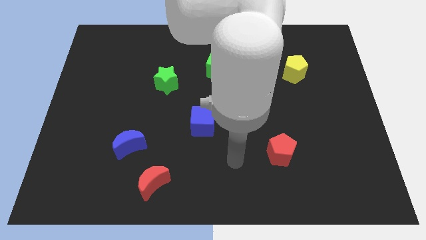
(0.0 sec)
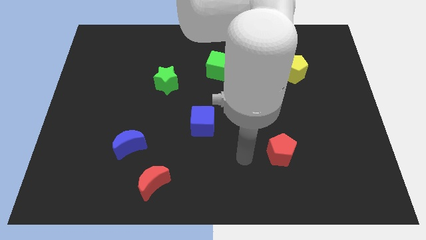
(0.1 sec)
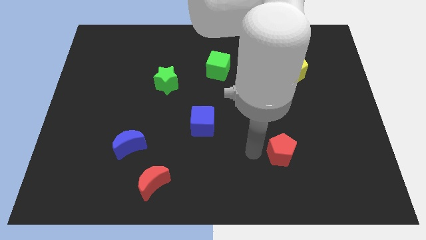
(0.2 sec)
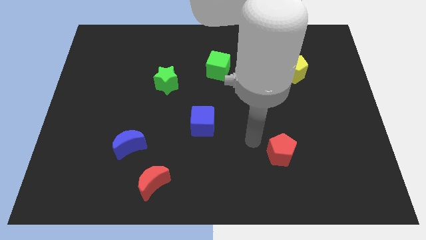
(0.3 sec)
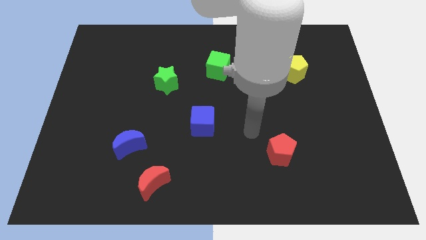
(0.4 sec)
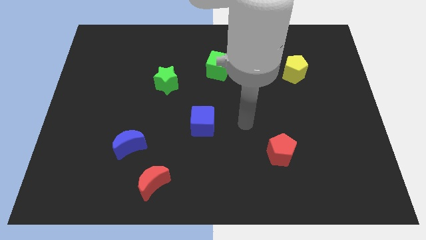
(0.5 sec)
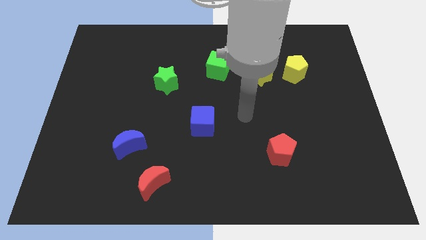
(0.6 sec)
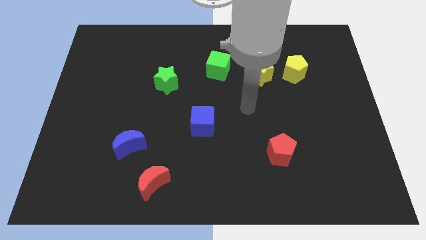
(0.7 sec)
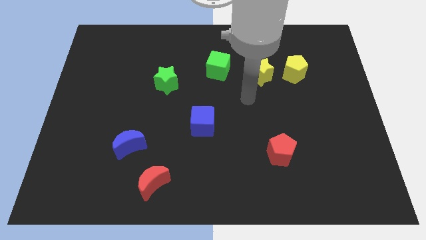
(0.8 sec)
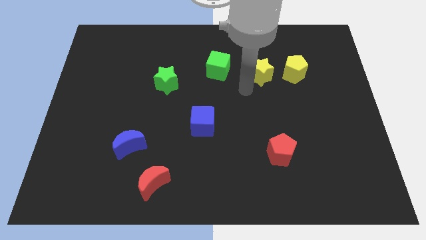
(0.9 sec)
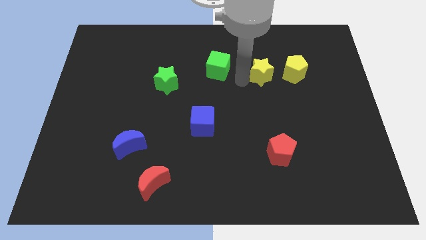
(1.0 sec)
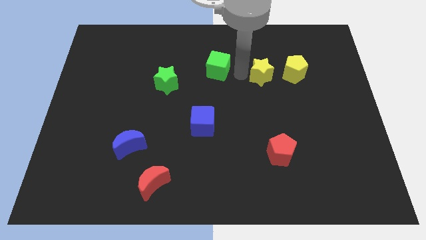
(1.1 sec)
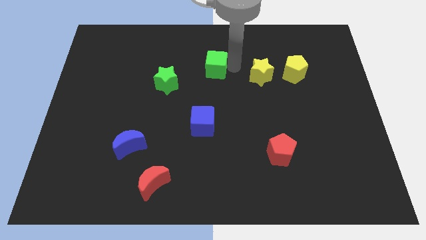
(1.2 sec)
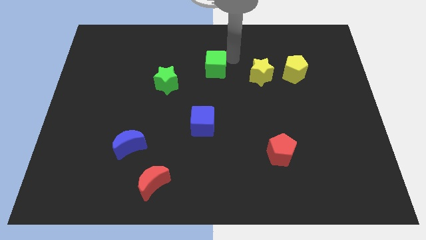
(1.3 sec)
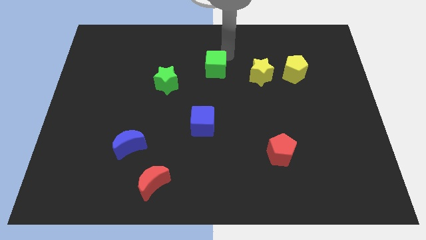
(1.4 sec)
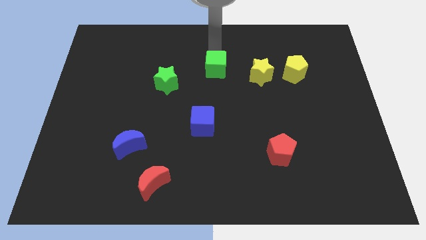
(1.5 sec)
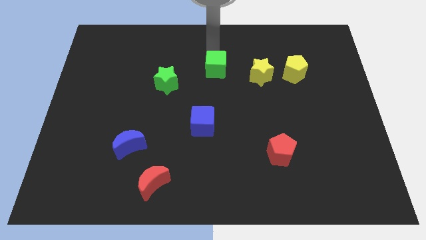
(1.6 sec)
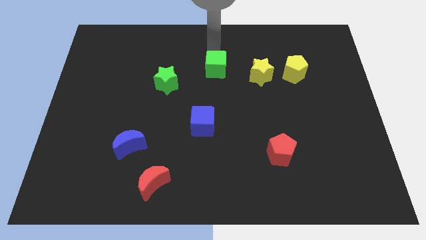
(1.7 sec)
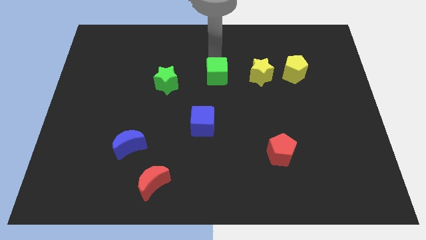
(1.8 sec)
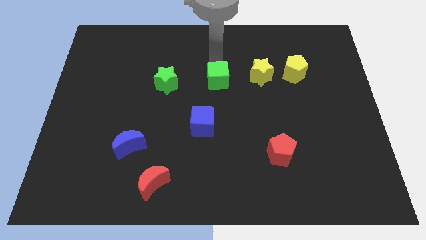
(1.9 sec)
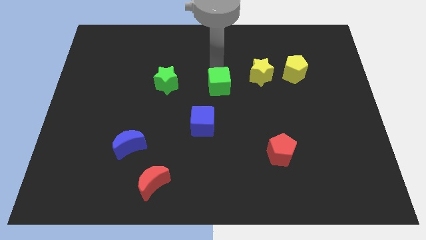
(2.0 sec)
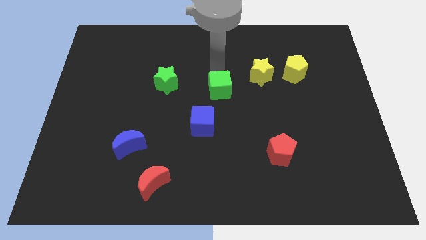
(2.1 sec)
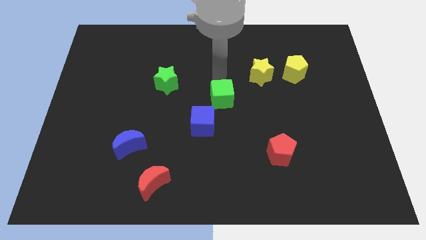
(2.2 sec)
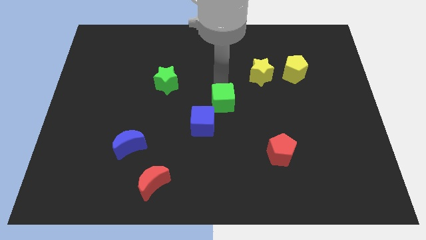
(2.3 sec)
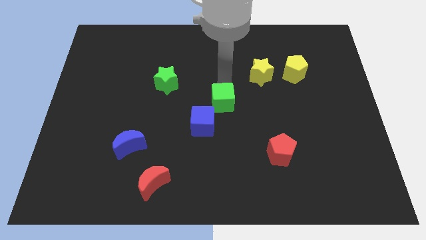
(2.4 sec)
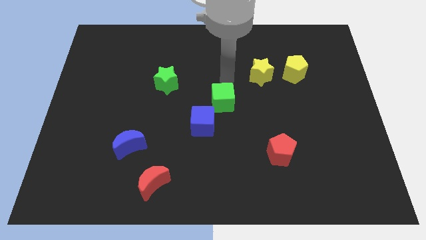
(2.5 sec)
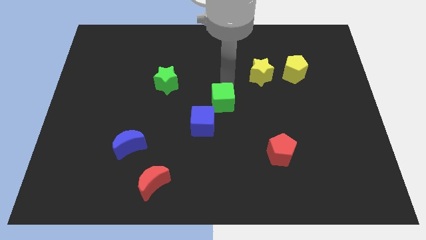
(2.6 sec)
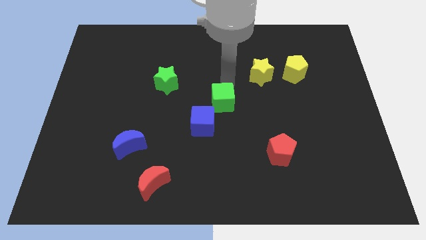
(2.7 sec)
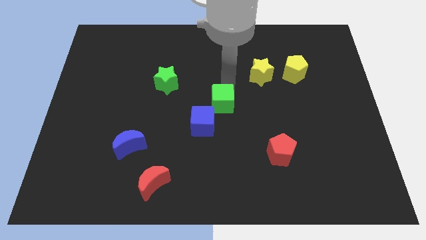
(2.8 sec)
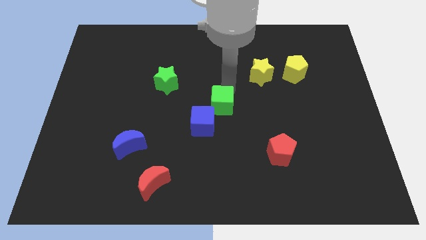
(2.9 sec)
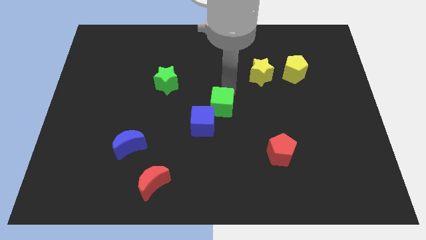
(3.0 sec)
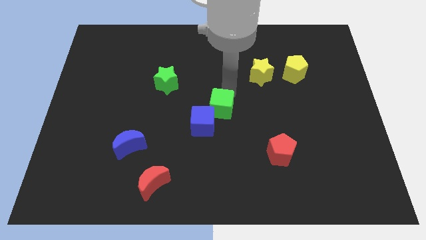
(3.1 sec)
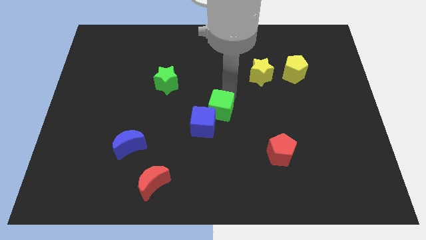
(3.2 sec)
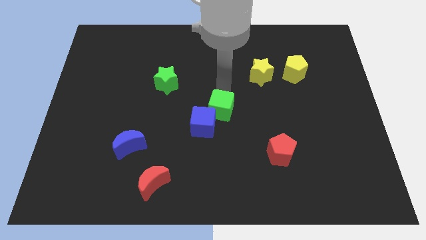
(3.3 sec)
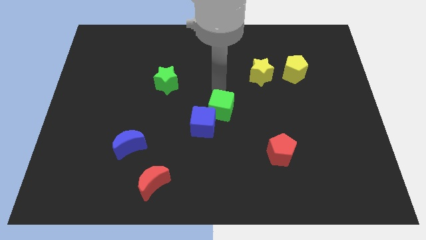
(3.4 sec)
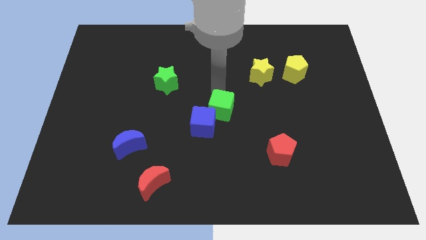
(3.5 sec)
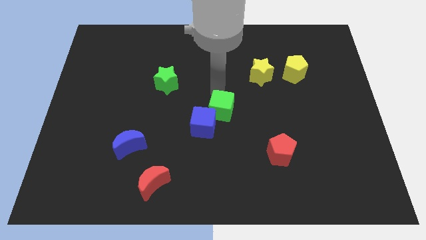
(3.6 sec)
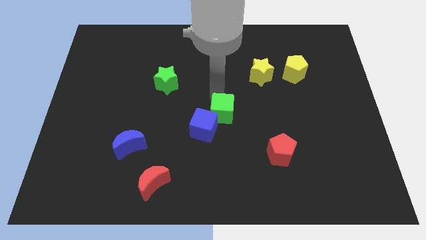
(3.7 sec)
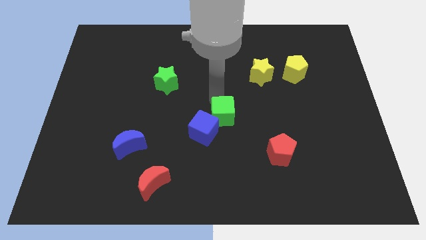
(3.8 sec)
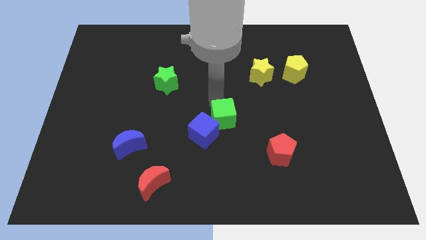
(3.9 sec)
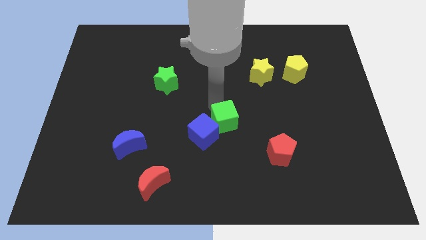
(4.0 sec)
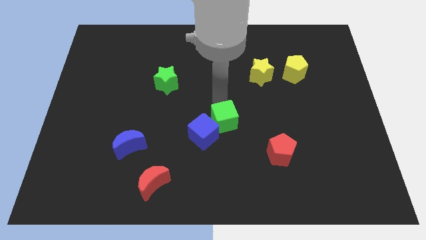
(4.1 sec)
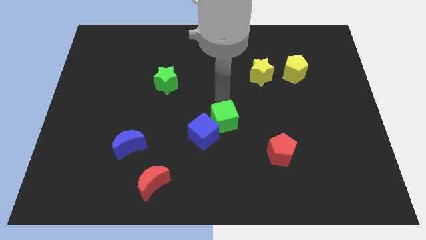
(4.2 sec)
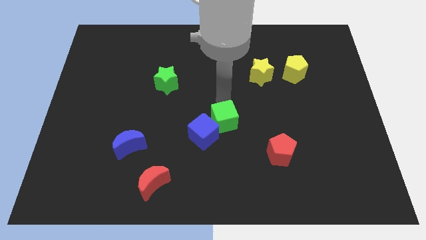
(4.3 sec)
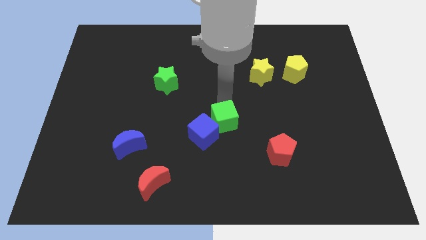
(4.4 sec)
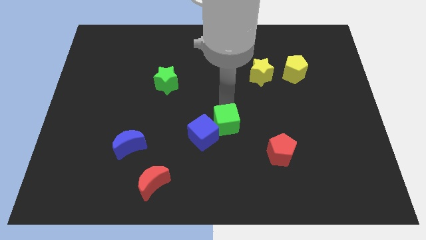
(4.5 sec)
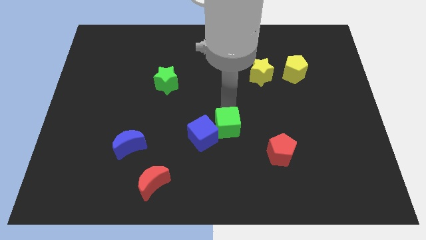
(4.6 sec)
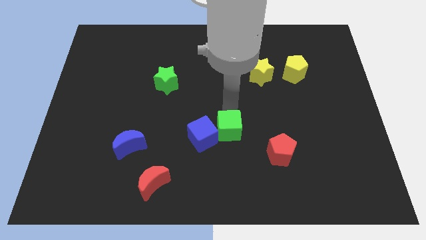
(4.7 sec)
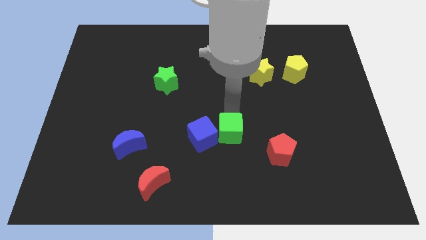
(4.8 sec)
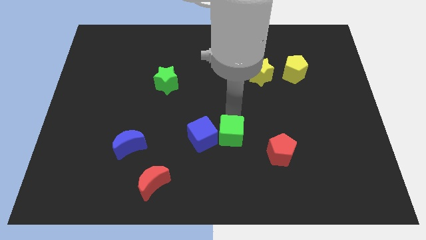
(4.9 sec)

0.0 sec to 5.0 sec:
push the green cube diagonally down and to the right of the blue cube

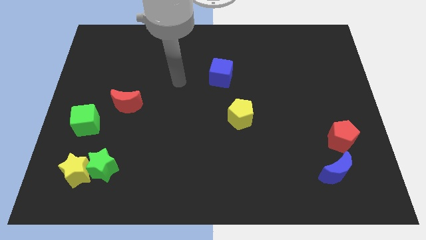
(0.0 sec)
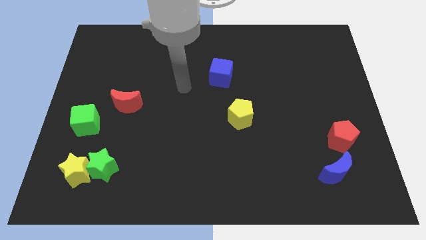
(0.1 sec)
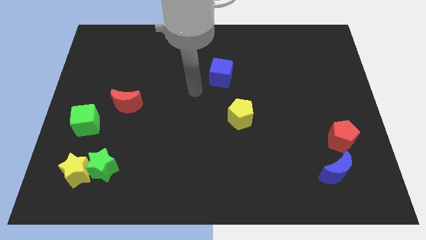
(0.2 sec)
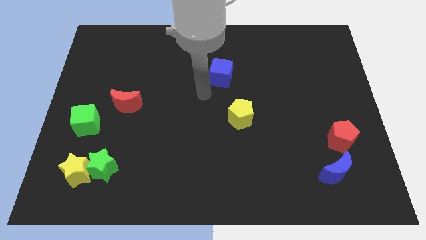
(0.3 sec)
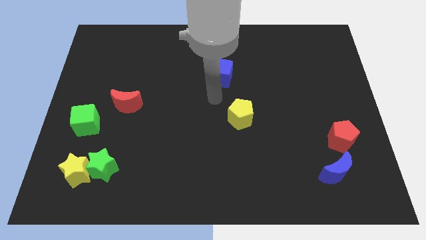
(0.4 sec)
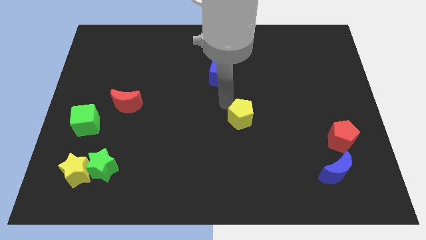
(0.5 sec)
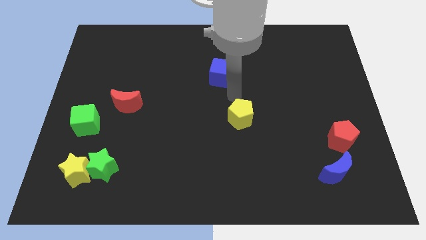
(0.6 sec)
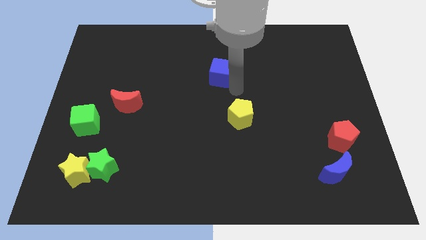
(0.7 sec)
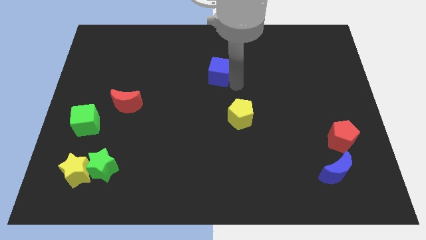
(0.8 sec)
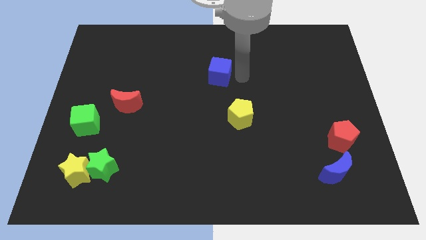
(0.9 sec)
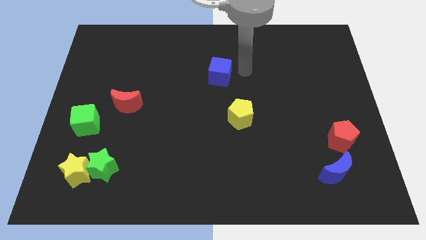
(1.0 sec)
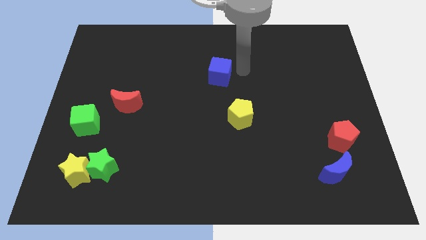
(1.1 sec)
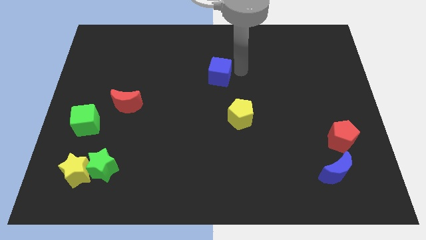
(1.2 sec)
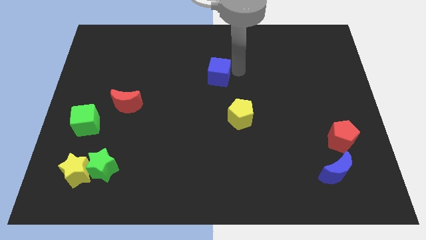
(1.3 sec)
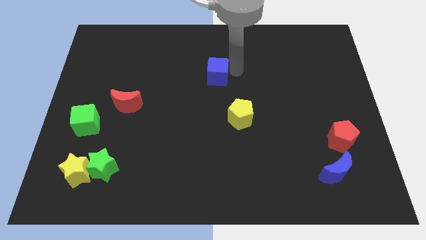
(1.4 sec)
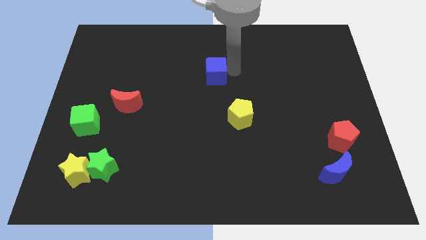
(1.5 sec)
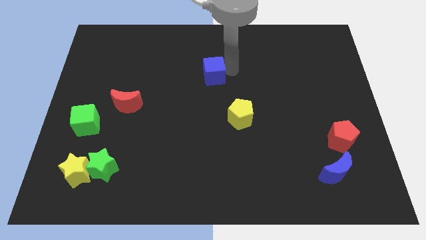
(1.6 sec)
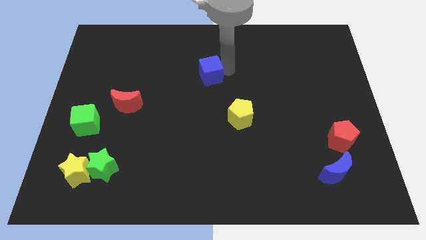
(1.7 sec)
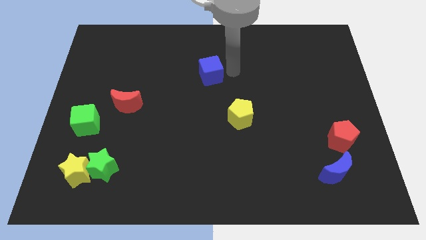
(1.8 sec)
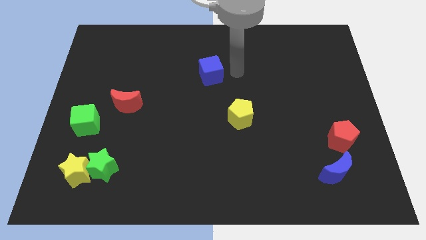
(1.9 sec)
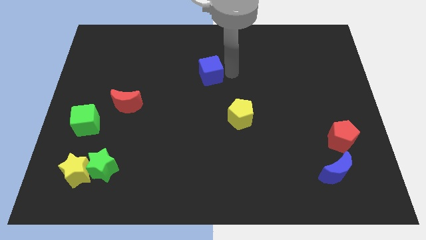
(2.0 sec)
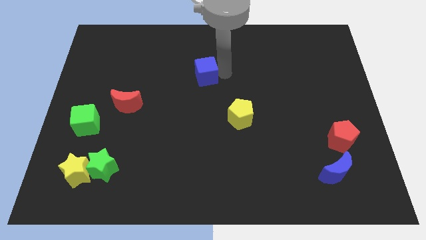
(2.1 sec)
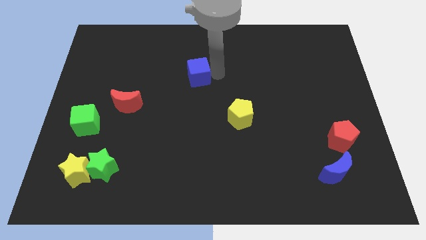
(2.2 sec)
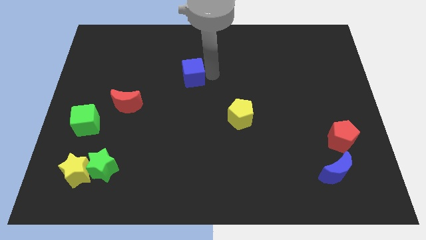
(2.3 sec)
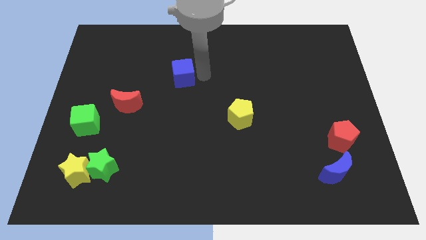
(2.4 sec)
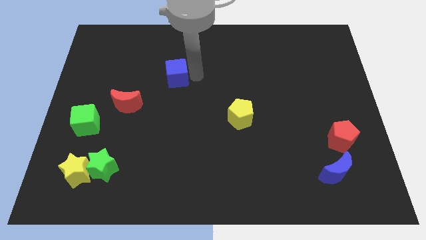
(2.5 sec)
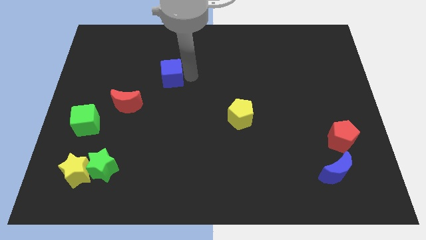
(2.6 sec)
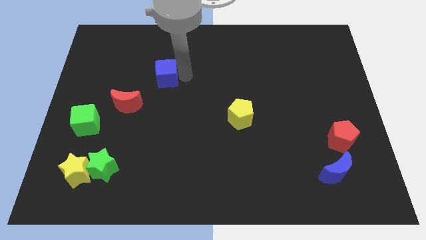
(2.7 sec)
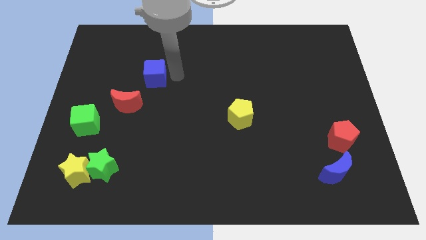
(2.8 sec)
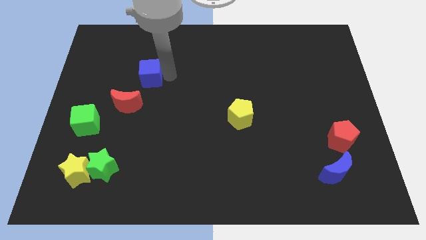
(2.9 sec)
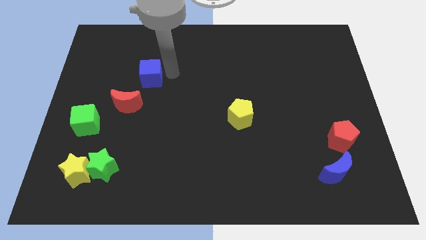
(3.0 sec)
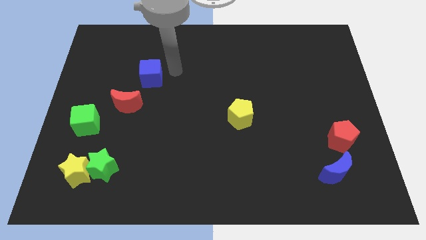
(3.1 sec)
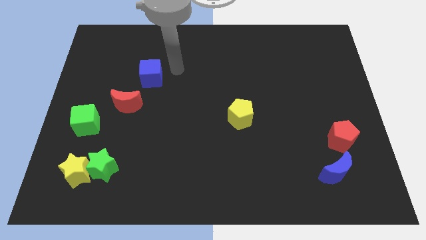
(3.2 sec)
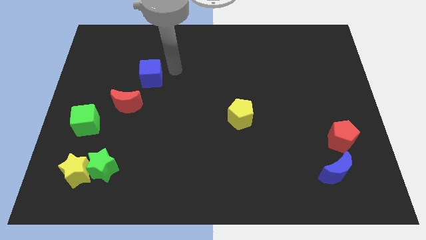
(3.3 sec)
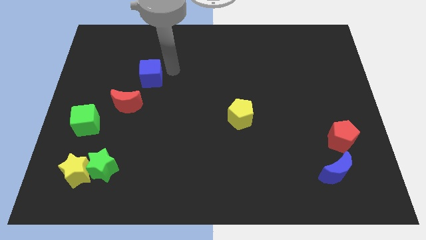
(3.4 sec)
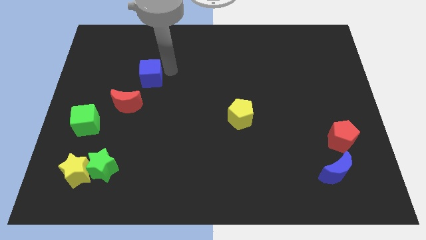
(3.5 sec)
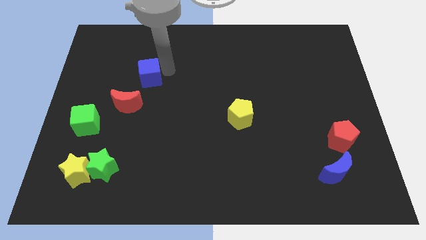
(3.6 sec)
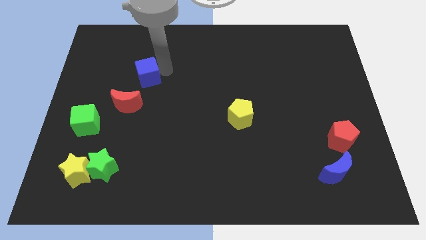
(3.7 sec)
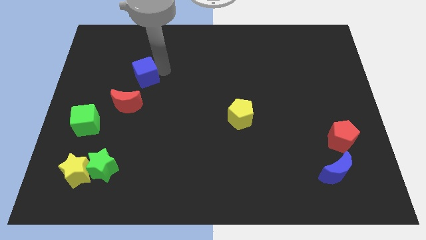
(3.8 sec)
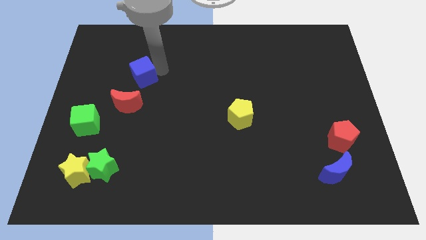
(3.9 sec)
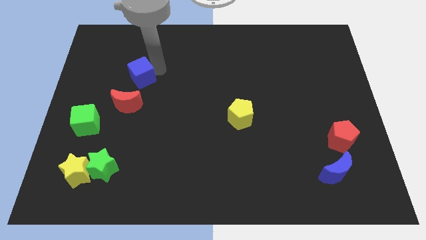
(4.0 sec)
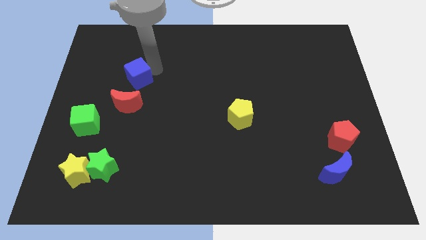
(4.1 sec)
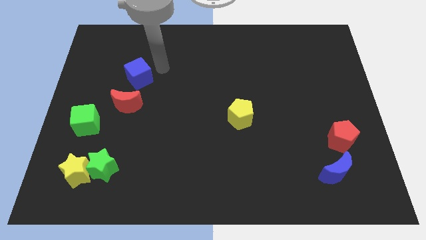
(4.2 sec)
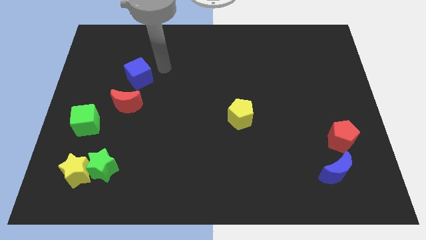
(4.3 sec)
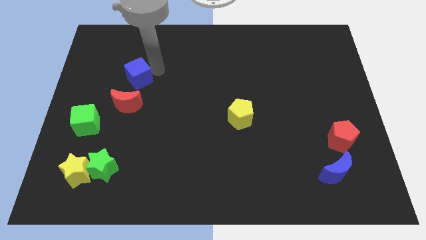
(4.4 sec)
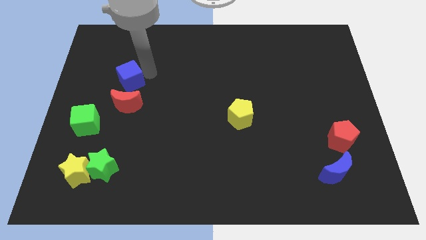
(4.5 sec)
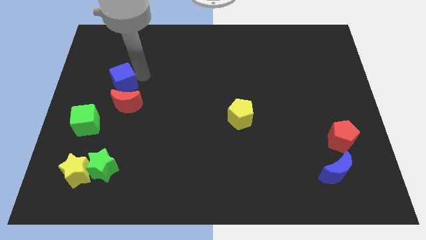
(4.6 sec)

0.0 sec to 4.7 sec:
move the blue cube diagonally up and to the left of the red moon
